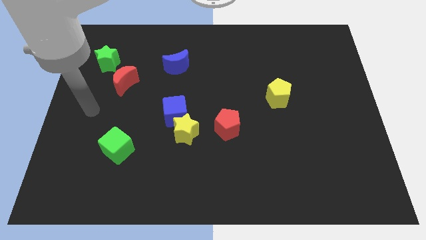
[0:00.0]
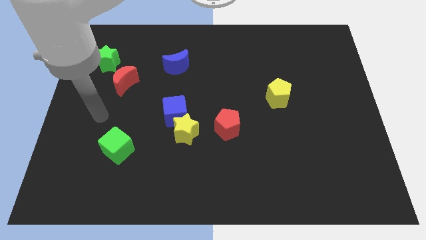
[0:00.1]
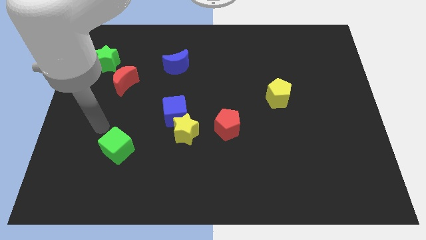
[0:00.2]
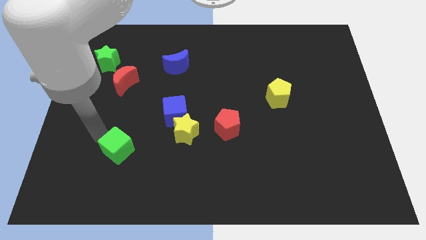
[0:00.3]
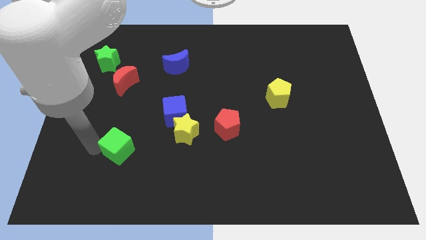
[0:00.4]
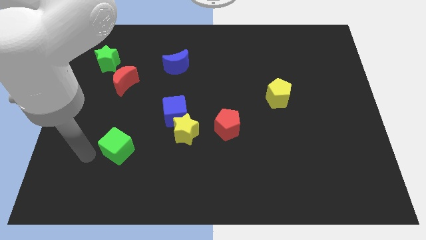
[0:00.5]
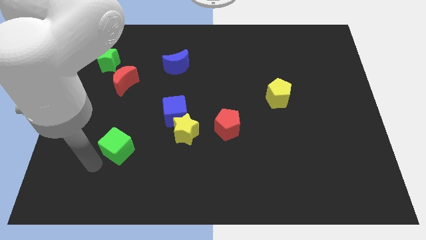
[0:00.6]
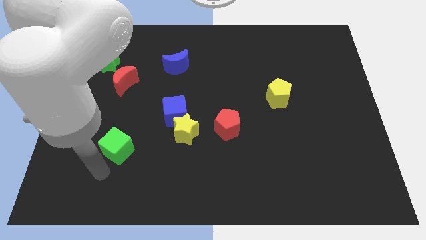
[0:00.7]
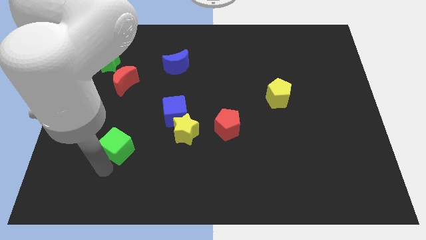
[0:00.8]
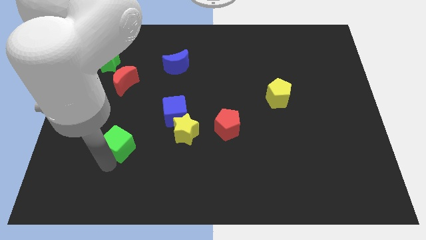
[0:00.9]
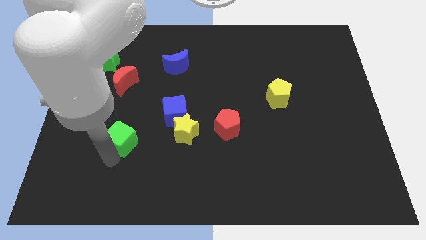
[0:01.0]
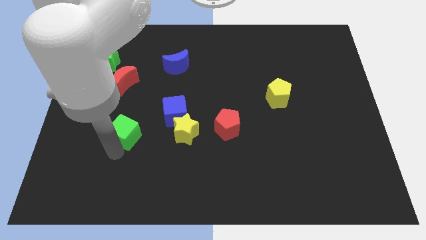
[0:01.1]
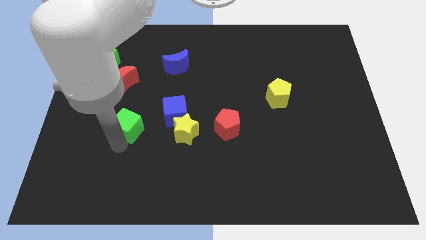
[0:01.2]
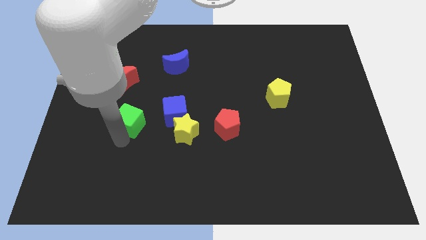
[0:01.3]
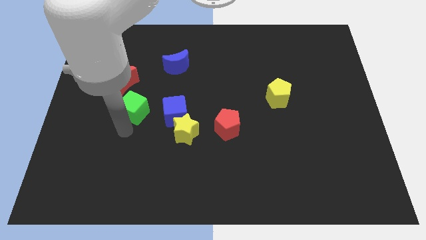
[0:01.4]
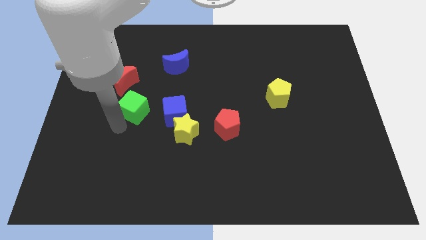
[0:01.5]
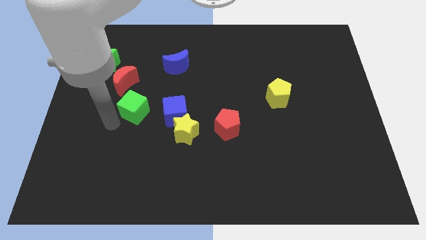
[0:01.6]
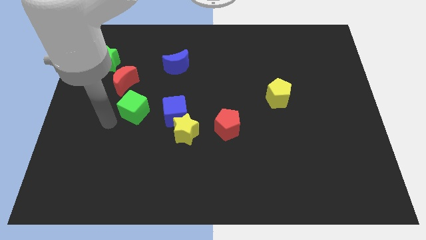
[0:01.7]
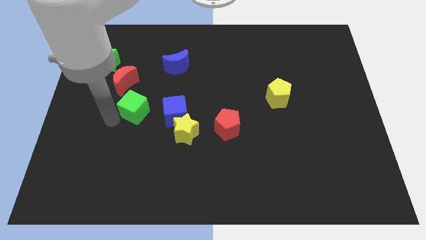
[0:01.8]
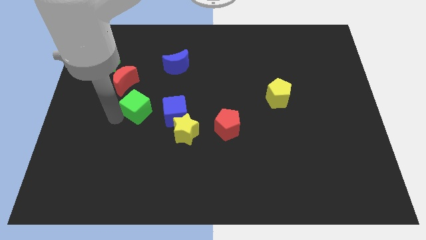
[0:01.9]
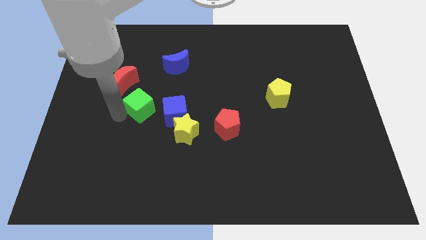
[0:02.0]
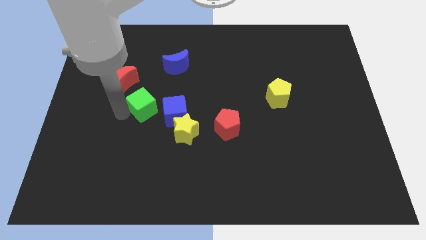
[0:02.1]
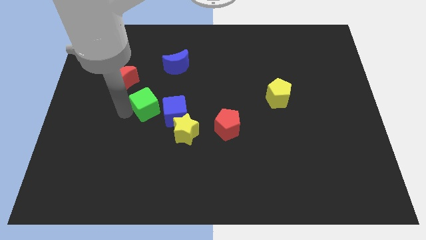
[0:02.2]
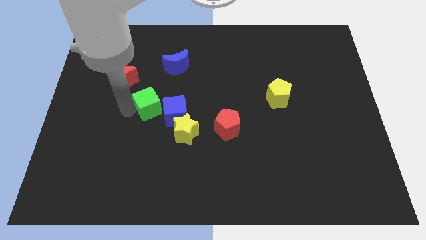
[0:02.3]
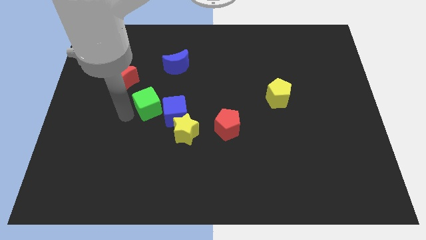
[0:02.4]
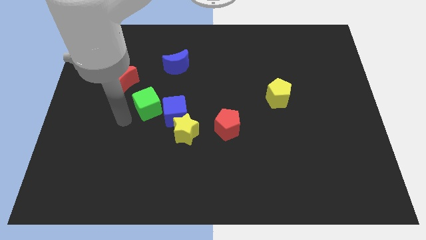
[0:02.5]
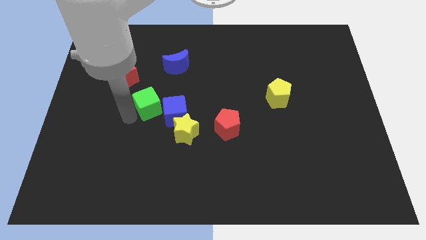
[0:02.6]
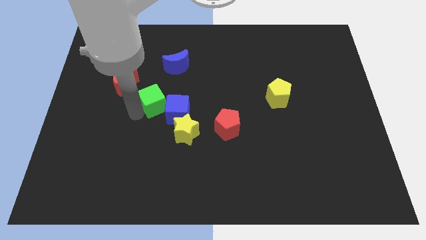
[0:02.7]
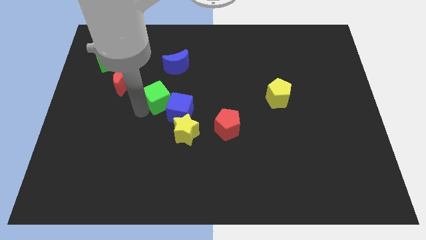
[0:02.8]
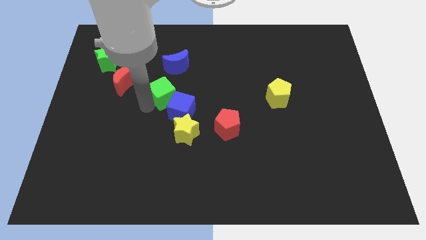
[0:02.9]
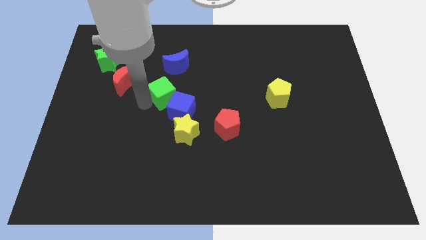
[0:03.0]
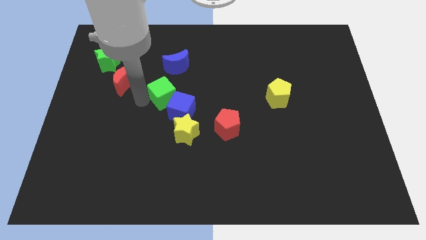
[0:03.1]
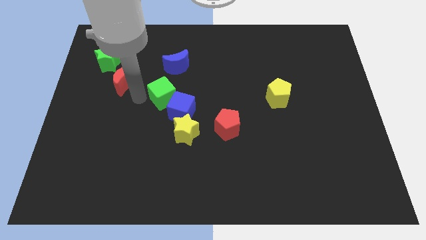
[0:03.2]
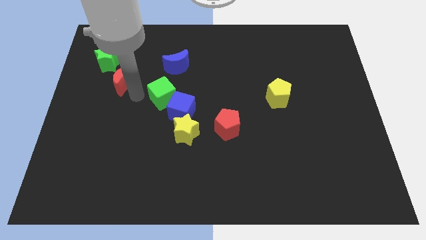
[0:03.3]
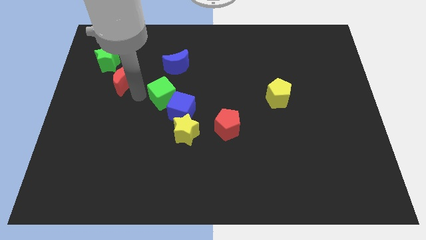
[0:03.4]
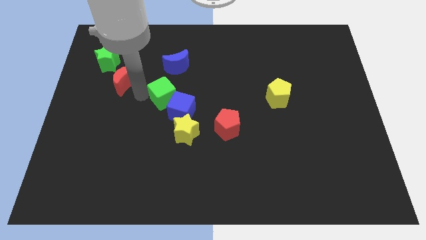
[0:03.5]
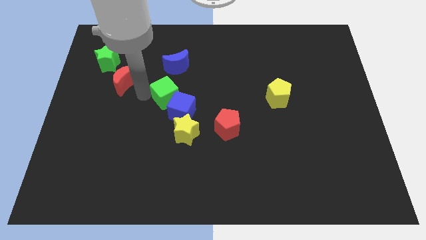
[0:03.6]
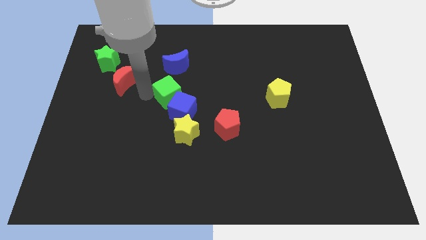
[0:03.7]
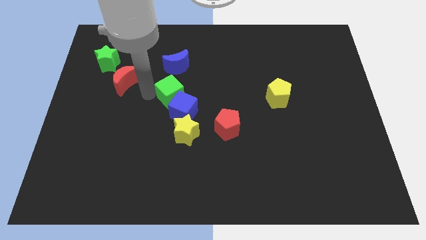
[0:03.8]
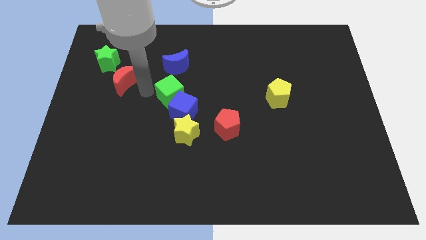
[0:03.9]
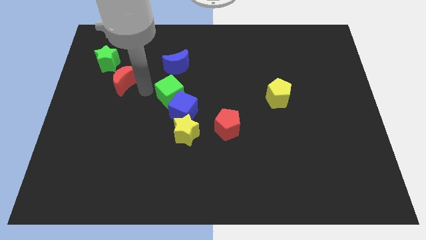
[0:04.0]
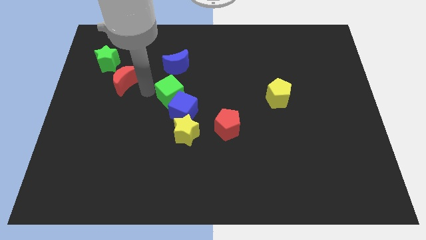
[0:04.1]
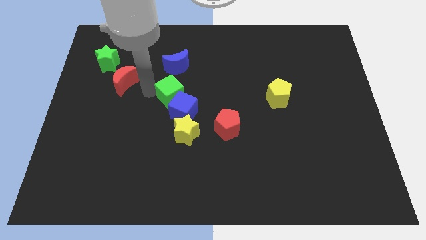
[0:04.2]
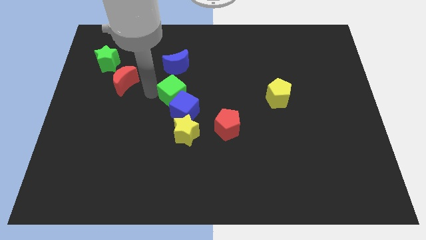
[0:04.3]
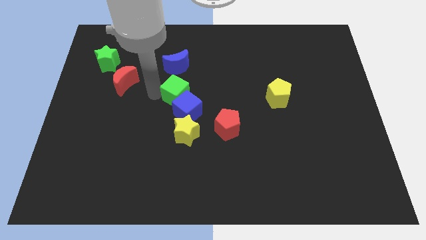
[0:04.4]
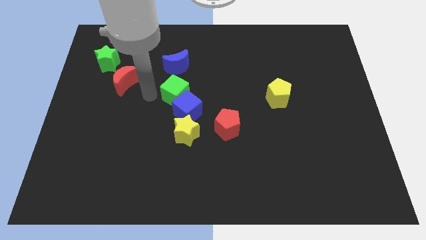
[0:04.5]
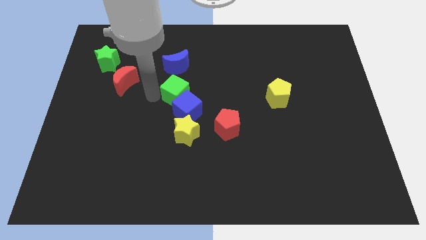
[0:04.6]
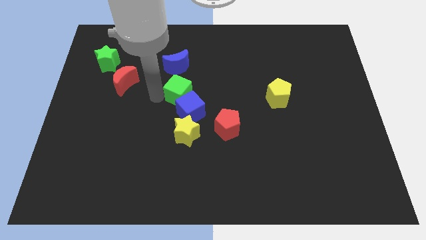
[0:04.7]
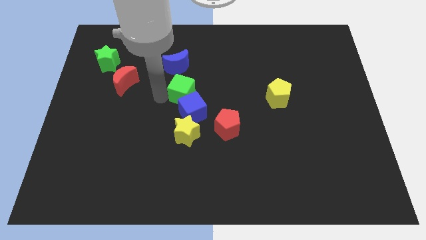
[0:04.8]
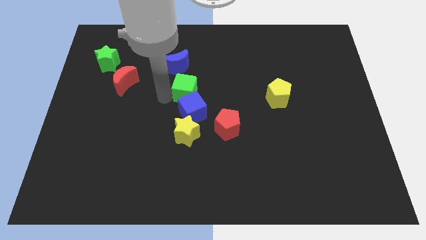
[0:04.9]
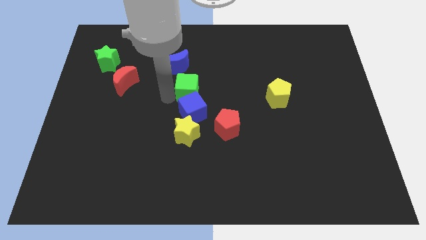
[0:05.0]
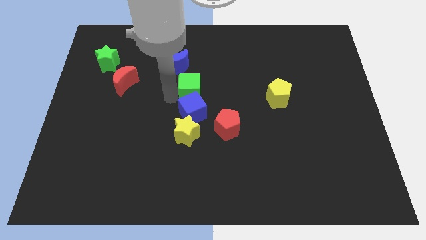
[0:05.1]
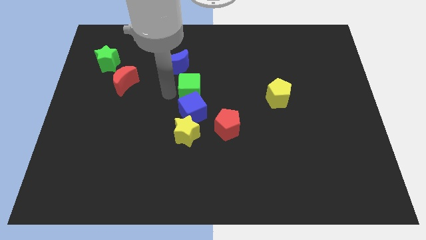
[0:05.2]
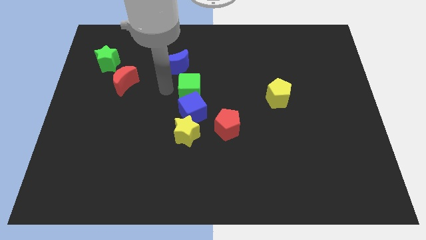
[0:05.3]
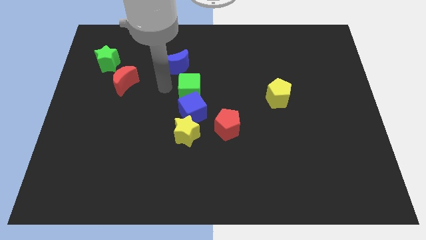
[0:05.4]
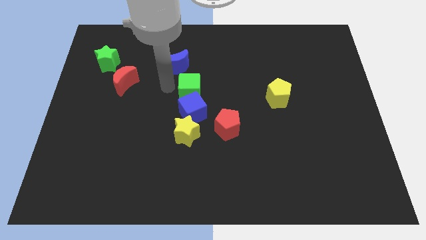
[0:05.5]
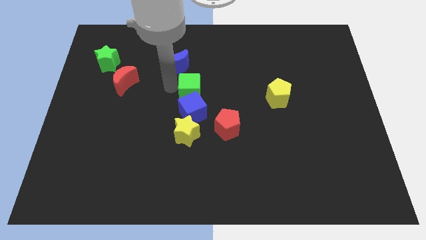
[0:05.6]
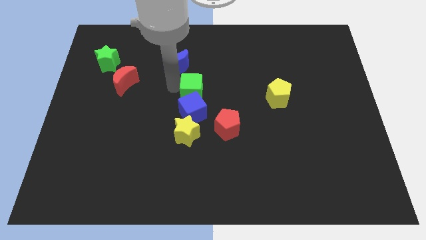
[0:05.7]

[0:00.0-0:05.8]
put the green cube to the top right side of the blue cube

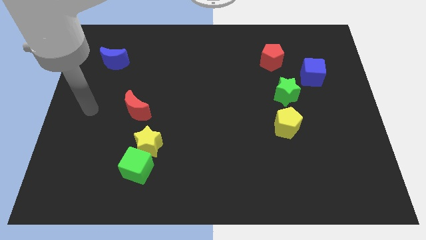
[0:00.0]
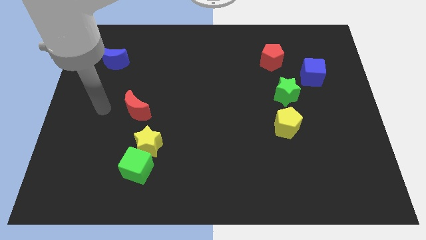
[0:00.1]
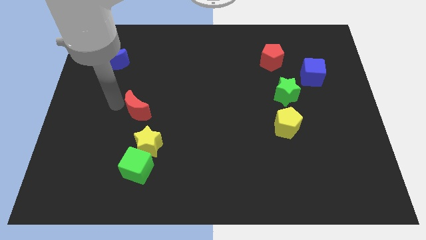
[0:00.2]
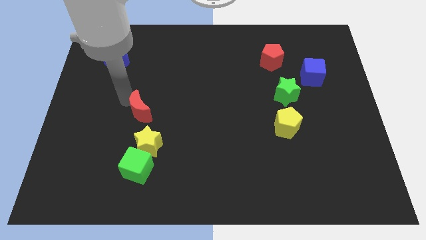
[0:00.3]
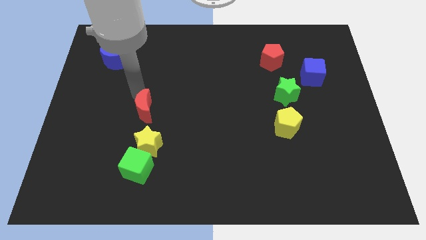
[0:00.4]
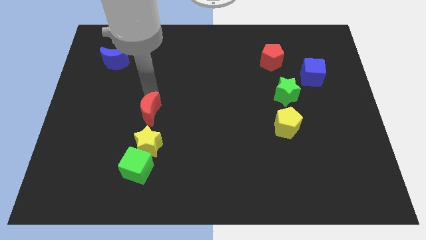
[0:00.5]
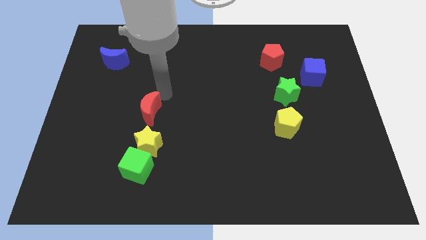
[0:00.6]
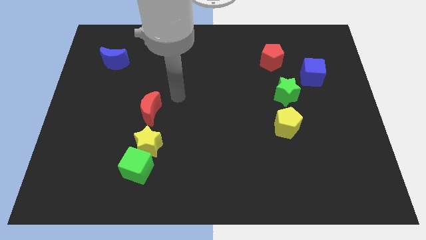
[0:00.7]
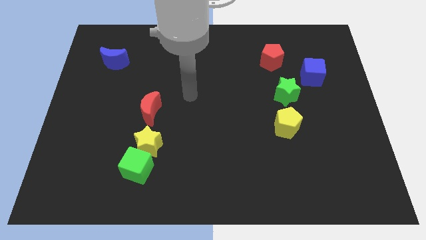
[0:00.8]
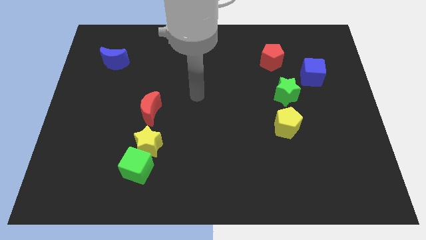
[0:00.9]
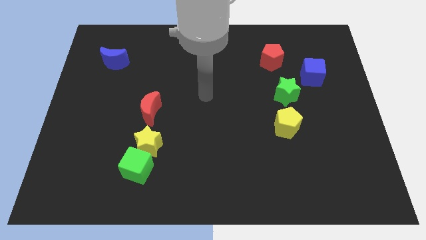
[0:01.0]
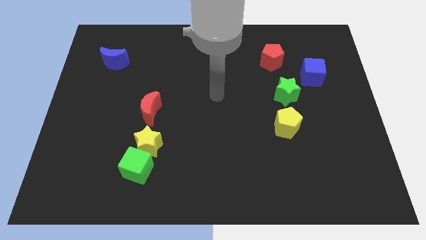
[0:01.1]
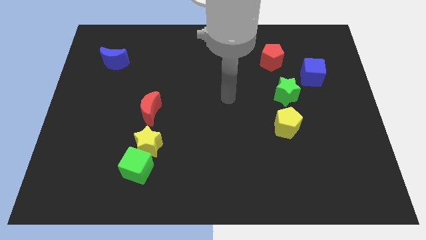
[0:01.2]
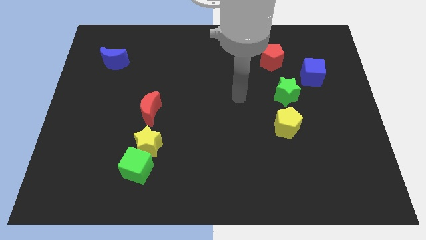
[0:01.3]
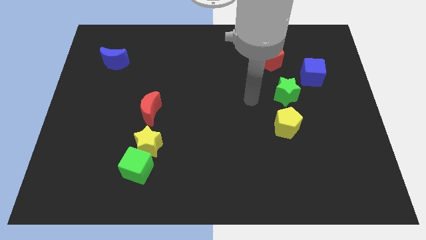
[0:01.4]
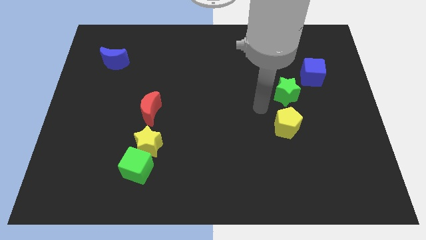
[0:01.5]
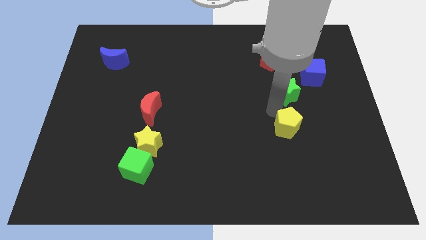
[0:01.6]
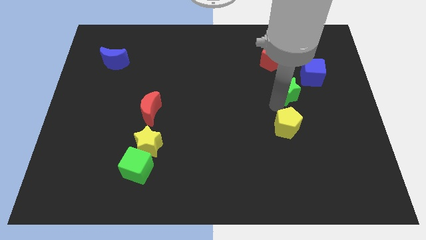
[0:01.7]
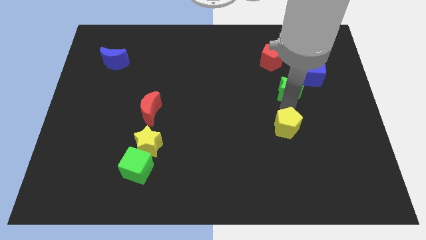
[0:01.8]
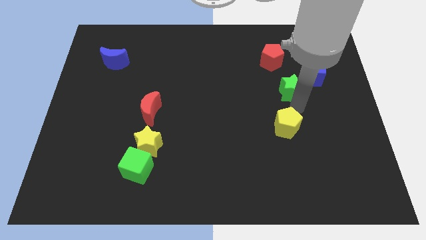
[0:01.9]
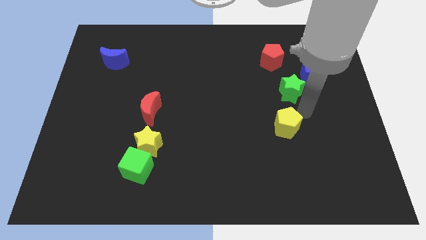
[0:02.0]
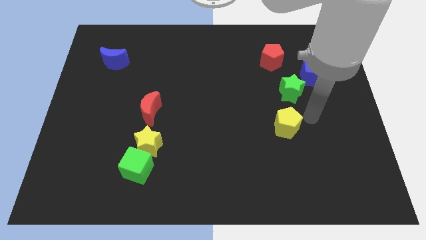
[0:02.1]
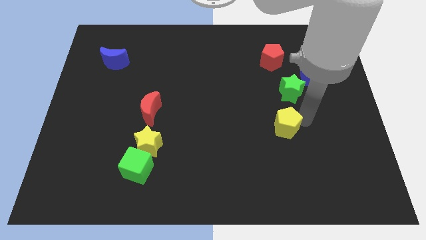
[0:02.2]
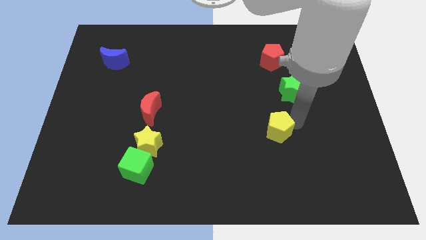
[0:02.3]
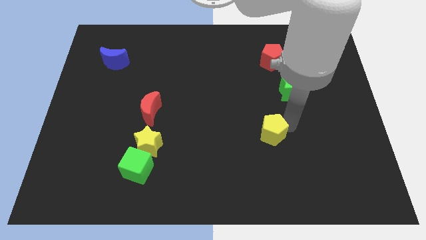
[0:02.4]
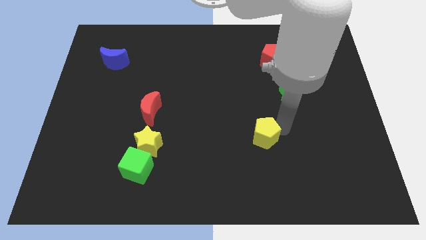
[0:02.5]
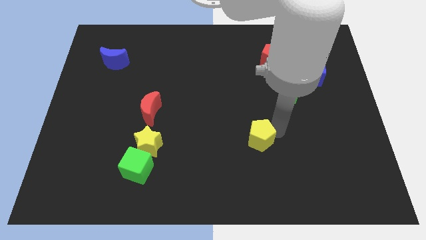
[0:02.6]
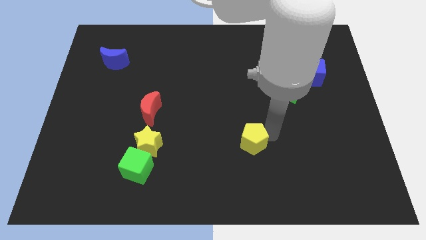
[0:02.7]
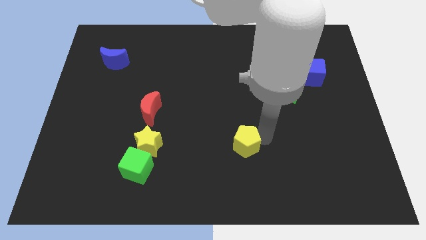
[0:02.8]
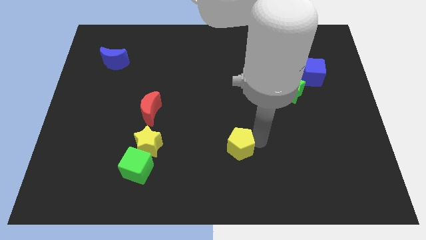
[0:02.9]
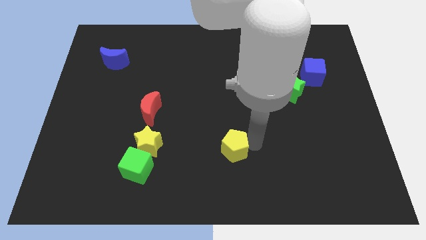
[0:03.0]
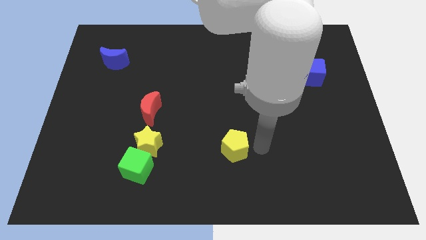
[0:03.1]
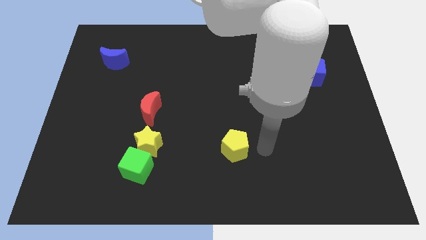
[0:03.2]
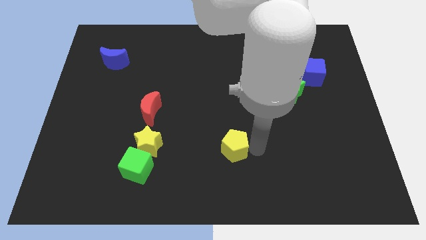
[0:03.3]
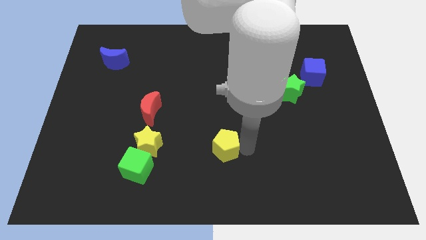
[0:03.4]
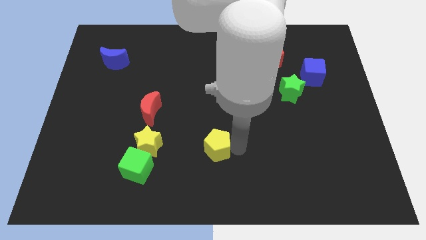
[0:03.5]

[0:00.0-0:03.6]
put the yellow pentagon to the right side of the yellow star
